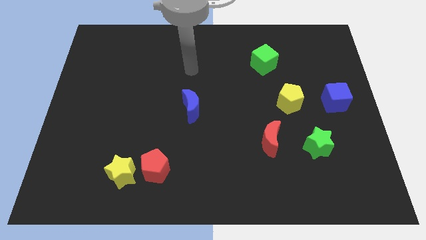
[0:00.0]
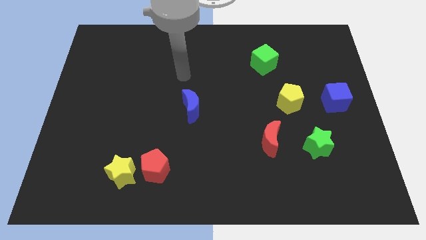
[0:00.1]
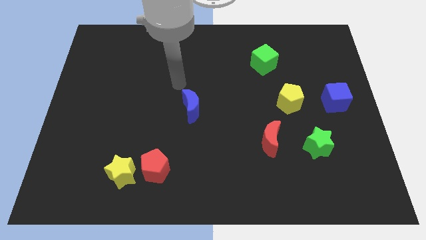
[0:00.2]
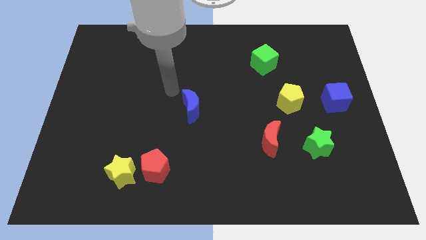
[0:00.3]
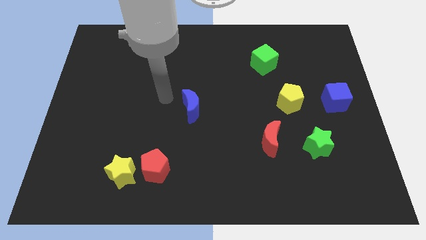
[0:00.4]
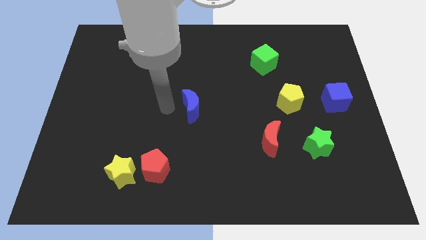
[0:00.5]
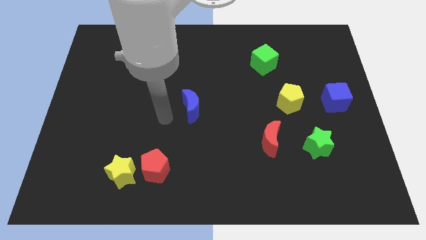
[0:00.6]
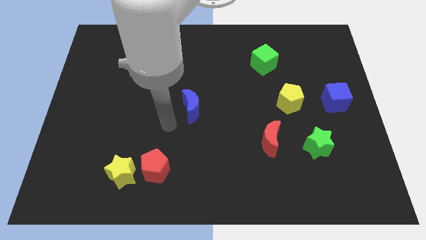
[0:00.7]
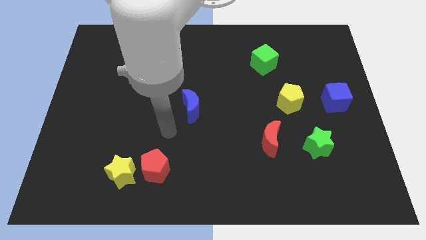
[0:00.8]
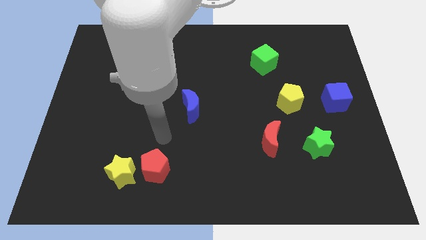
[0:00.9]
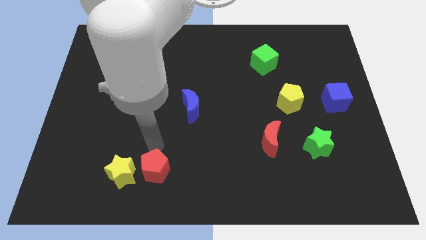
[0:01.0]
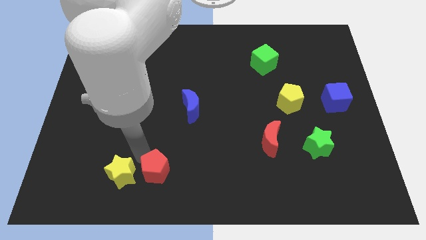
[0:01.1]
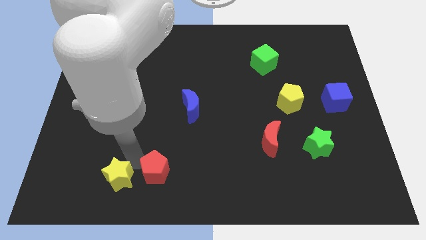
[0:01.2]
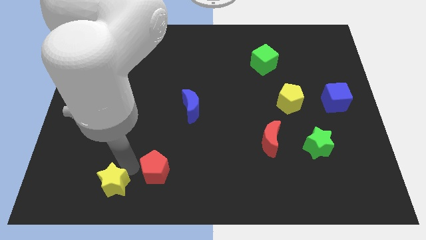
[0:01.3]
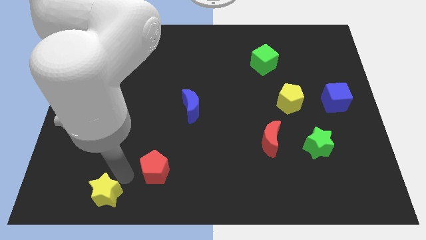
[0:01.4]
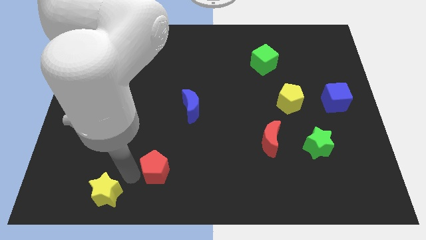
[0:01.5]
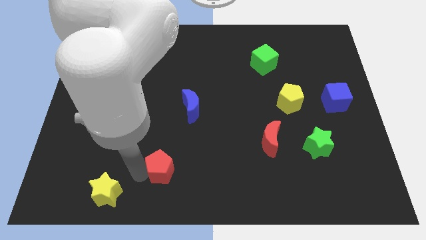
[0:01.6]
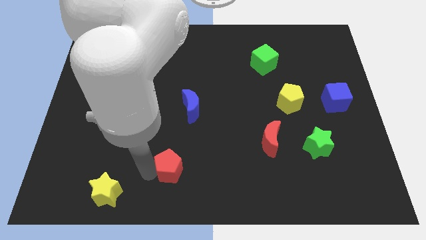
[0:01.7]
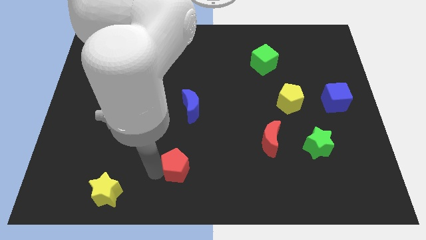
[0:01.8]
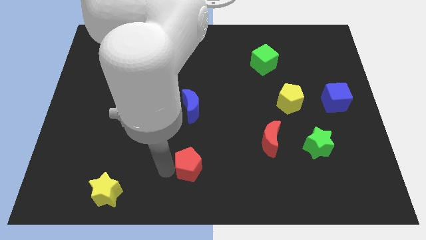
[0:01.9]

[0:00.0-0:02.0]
move the red pentagon slightly to the right

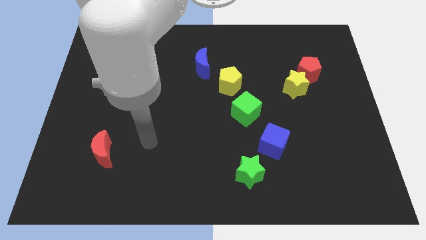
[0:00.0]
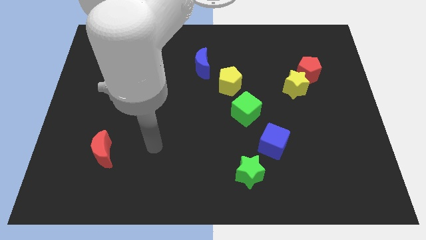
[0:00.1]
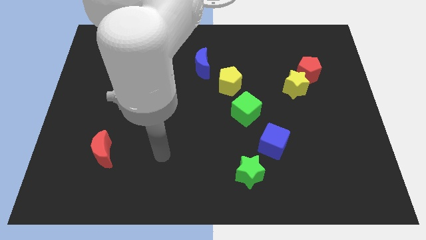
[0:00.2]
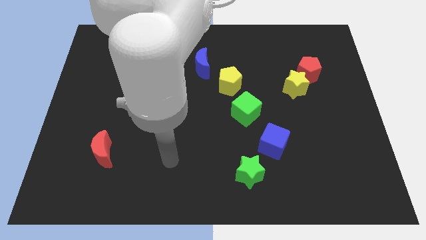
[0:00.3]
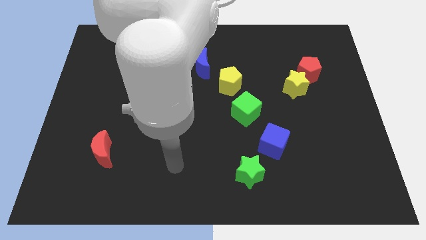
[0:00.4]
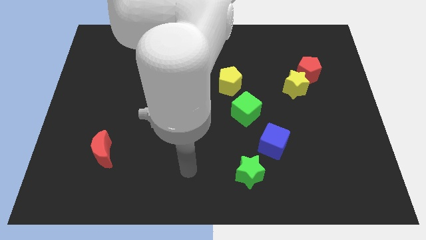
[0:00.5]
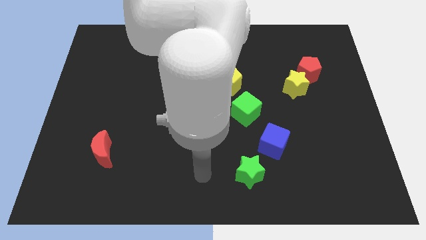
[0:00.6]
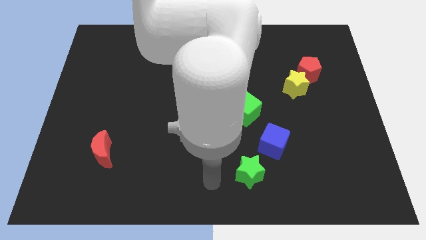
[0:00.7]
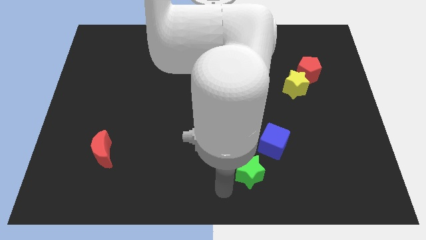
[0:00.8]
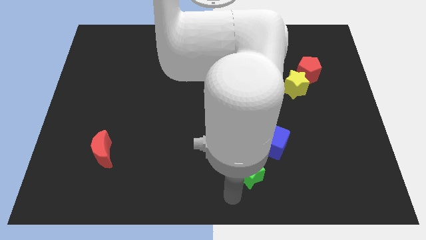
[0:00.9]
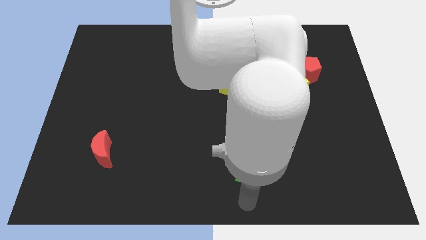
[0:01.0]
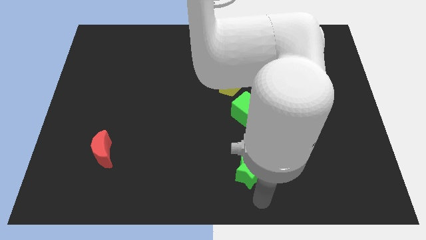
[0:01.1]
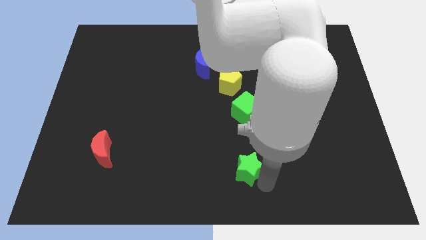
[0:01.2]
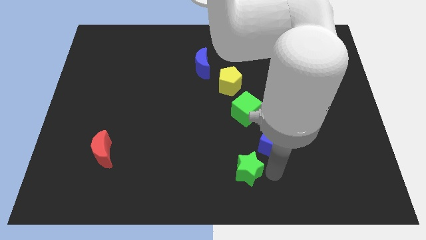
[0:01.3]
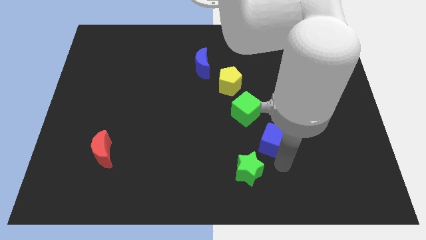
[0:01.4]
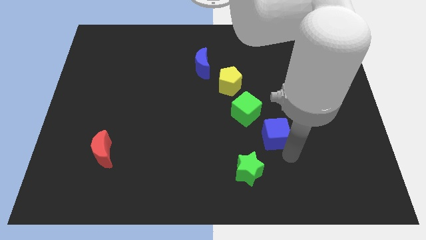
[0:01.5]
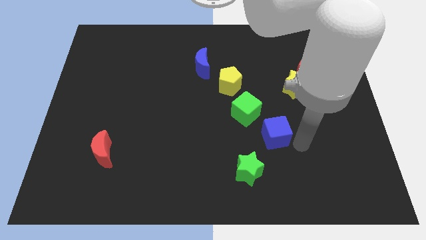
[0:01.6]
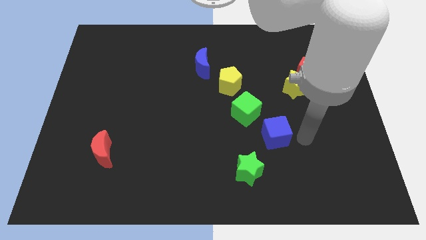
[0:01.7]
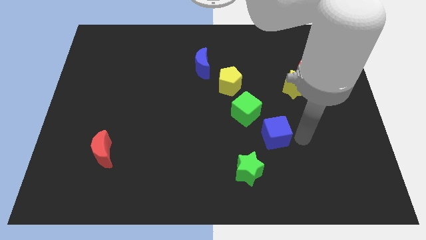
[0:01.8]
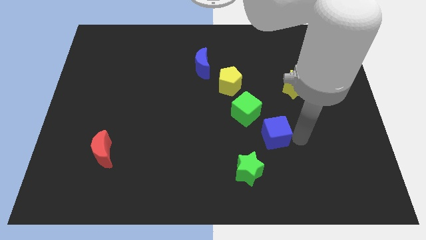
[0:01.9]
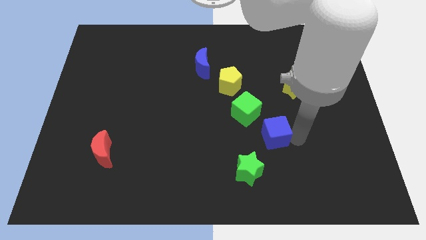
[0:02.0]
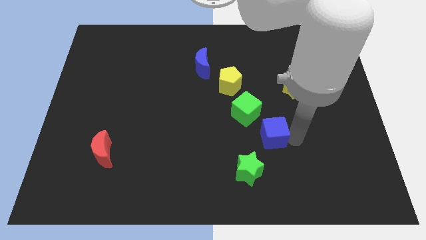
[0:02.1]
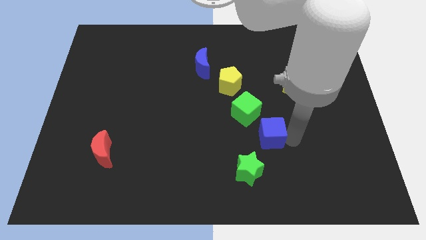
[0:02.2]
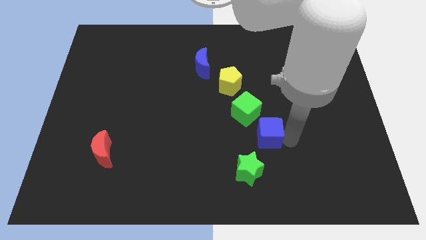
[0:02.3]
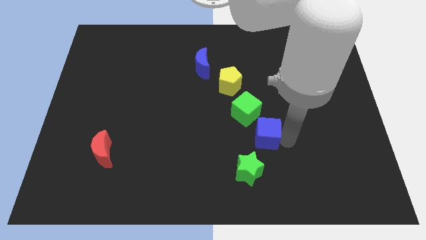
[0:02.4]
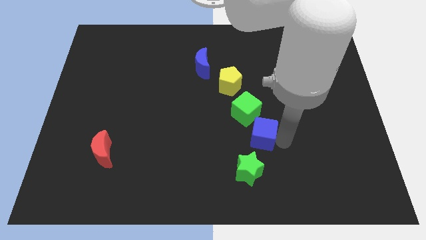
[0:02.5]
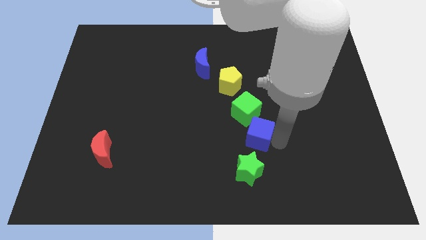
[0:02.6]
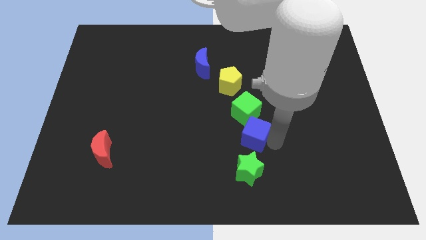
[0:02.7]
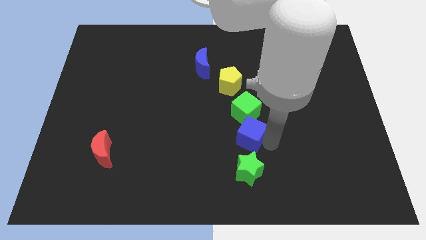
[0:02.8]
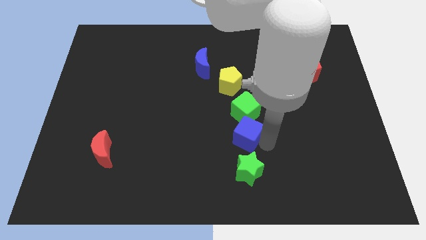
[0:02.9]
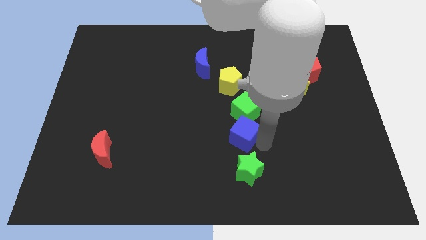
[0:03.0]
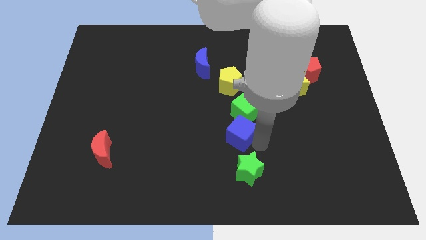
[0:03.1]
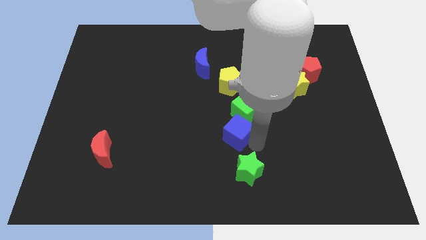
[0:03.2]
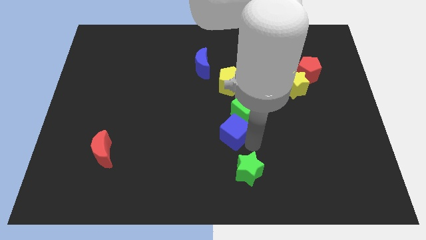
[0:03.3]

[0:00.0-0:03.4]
move the blue cube up and left diagonally slightly

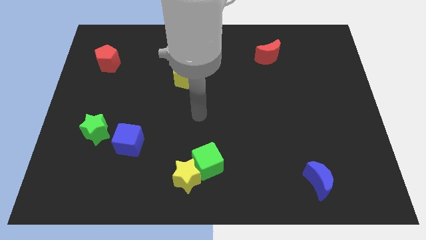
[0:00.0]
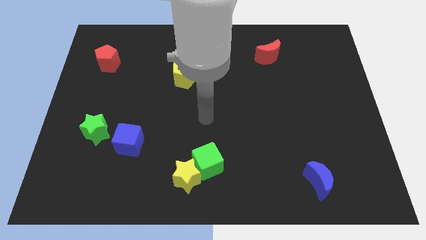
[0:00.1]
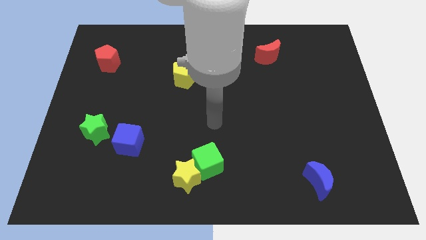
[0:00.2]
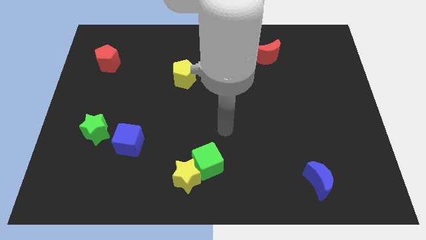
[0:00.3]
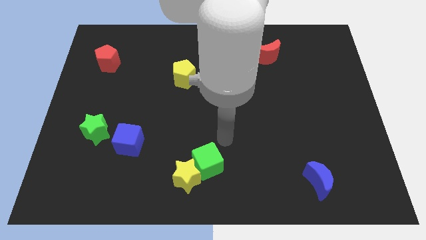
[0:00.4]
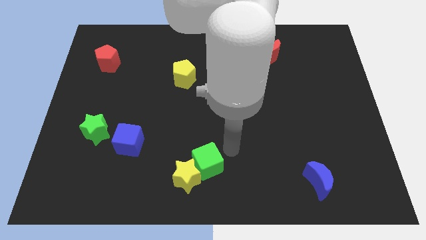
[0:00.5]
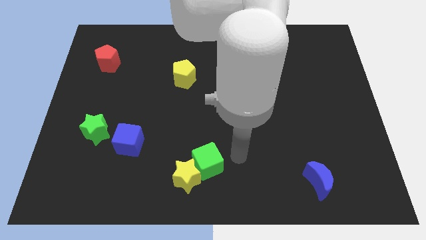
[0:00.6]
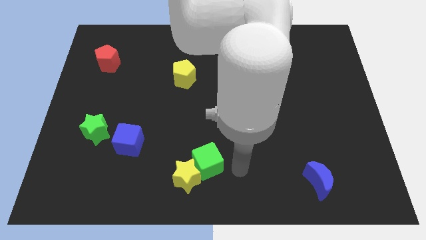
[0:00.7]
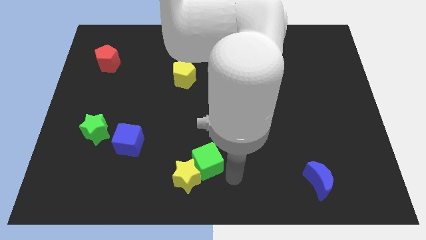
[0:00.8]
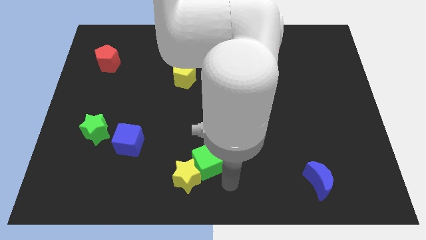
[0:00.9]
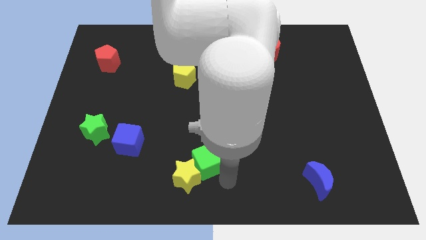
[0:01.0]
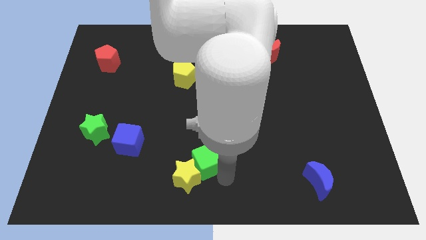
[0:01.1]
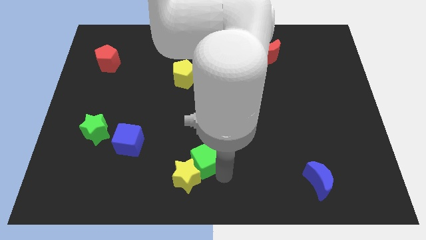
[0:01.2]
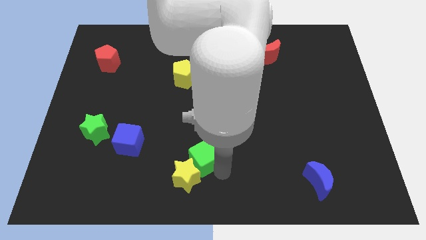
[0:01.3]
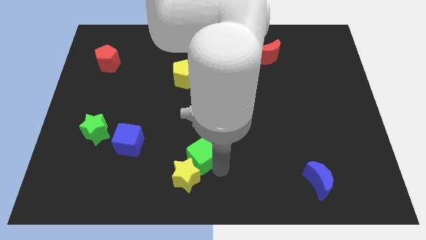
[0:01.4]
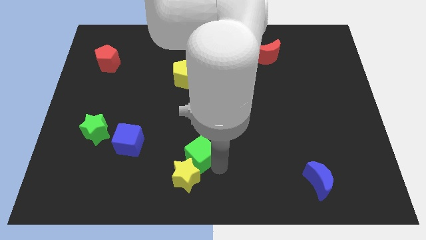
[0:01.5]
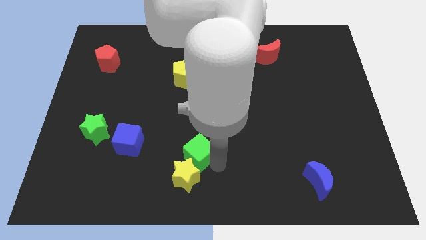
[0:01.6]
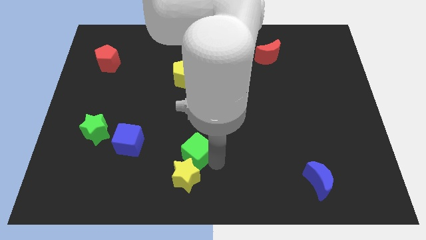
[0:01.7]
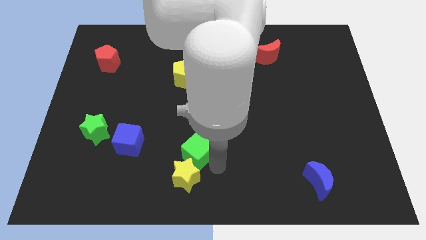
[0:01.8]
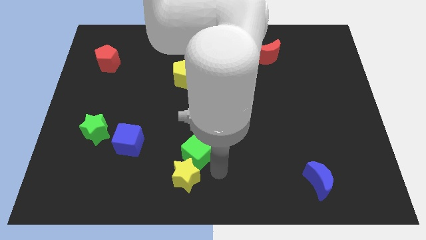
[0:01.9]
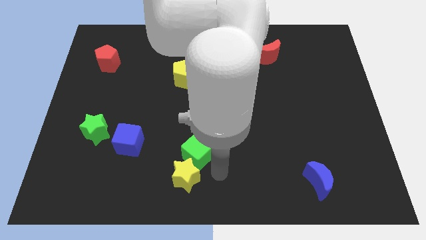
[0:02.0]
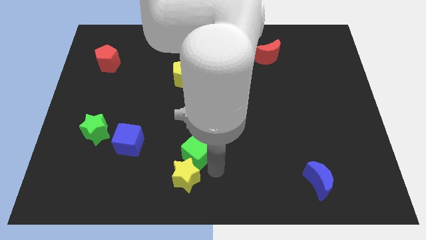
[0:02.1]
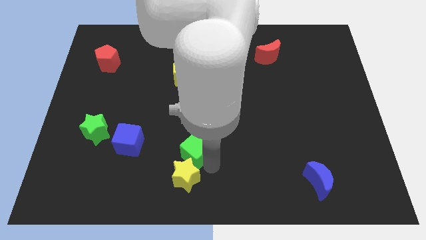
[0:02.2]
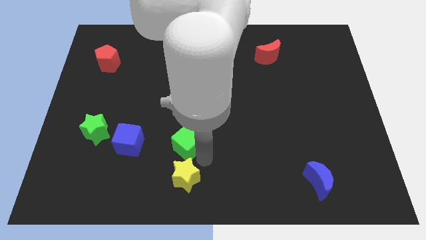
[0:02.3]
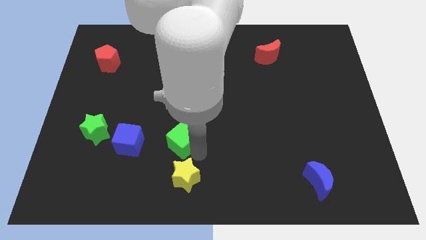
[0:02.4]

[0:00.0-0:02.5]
slightly push the green cube diagonally upwards and left

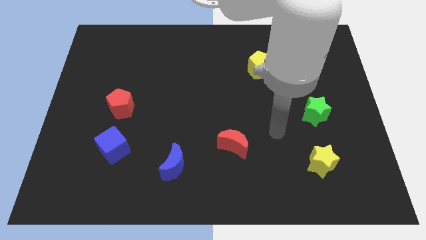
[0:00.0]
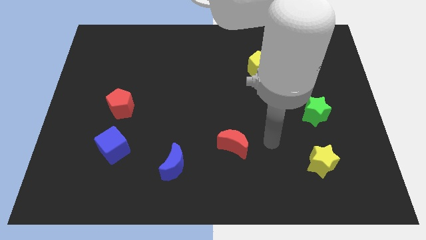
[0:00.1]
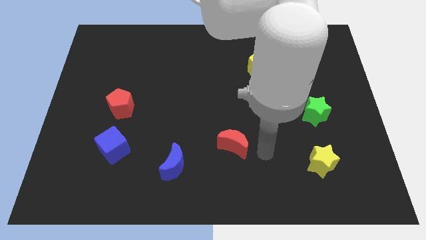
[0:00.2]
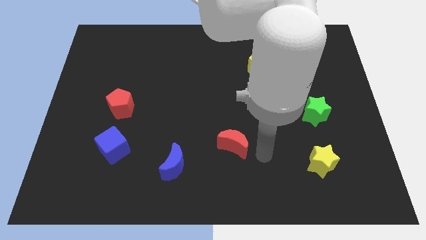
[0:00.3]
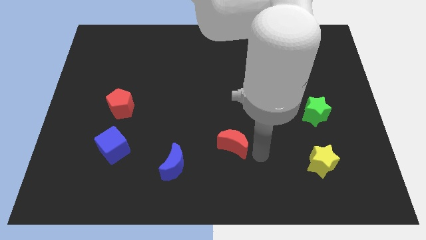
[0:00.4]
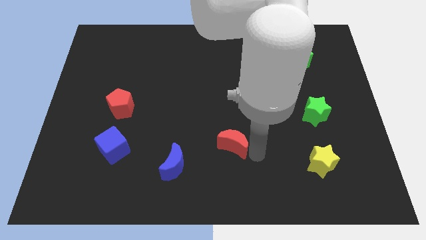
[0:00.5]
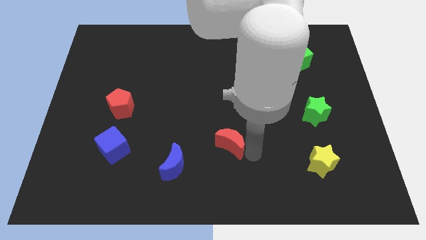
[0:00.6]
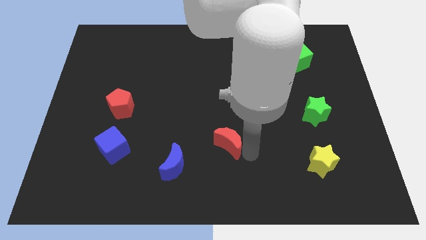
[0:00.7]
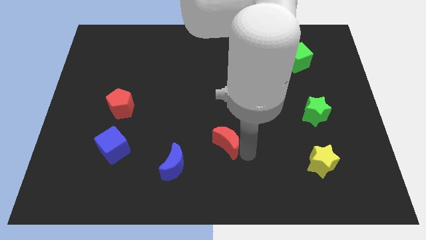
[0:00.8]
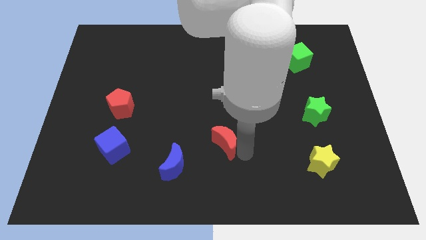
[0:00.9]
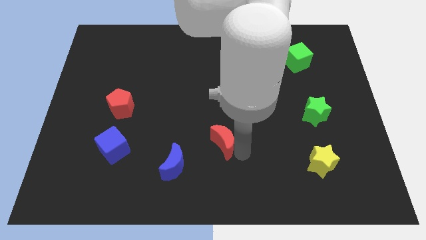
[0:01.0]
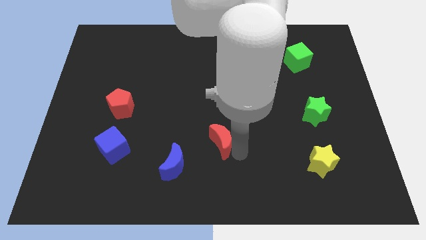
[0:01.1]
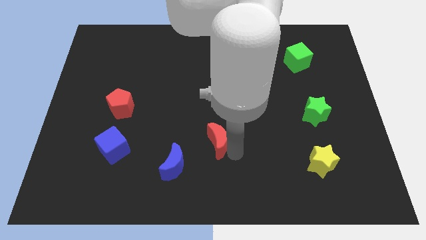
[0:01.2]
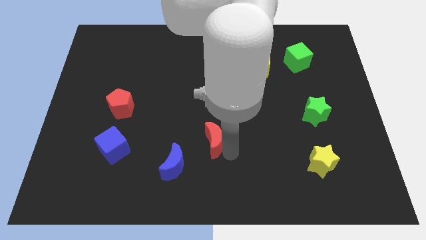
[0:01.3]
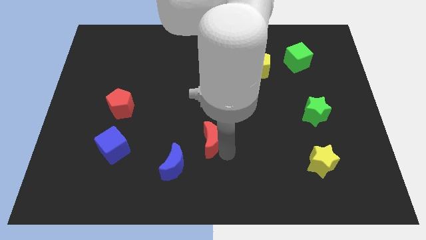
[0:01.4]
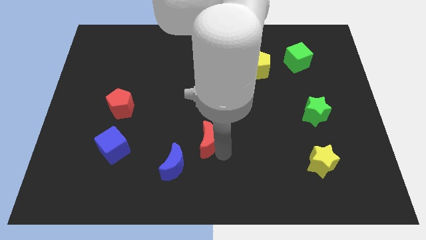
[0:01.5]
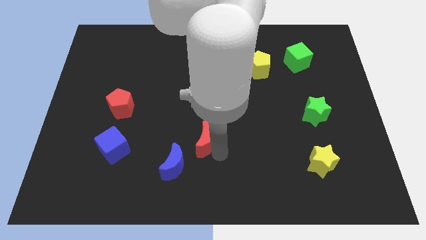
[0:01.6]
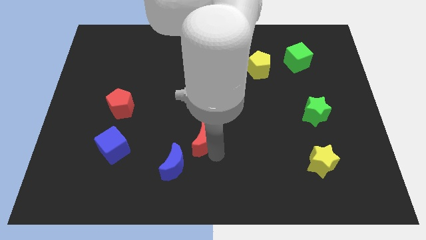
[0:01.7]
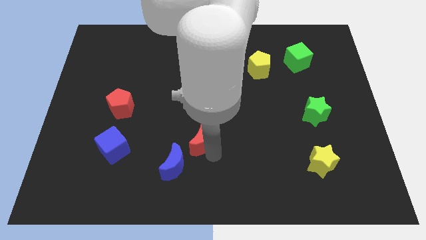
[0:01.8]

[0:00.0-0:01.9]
slide the red moon left slightly
